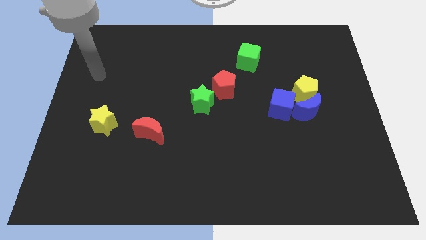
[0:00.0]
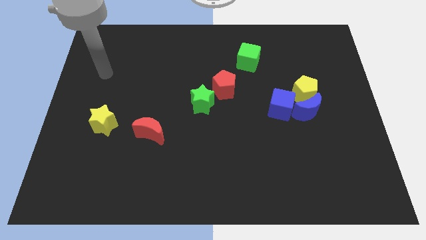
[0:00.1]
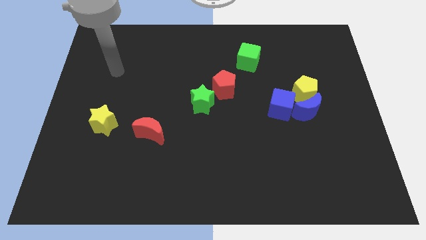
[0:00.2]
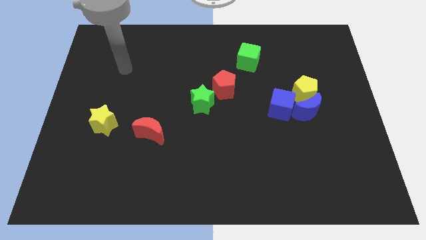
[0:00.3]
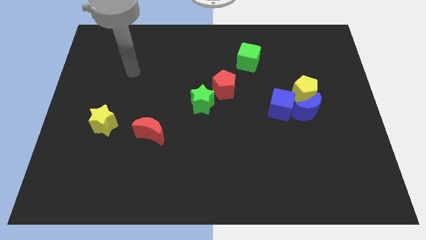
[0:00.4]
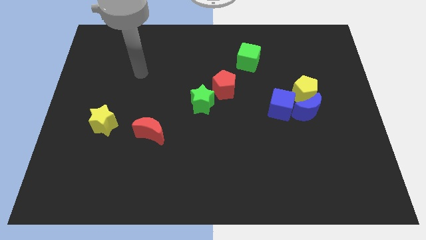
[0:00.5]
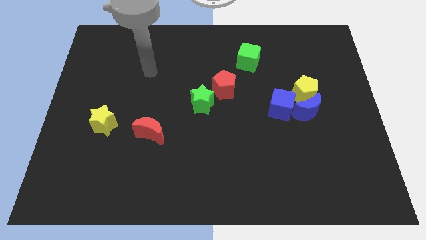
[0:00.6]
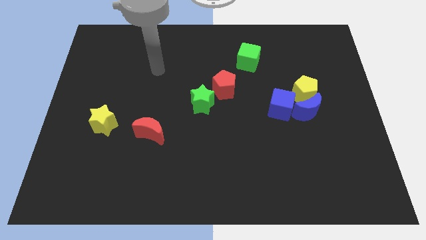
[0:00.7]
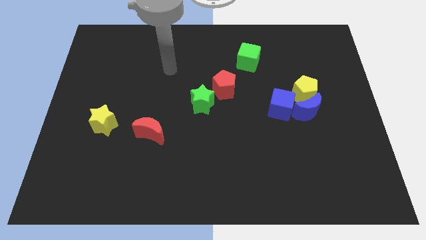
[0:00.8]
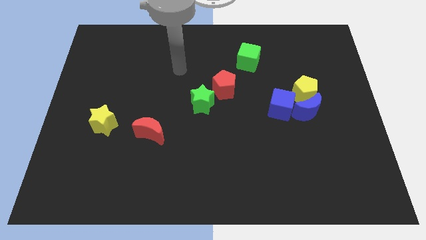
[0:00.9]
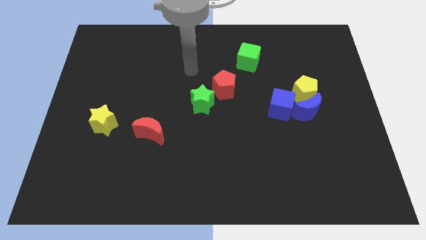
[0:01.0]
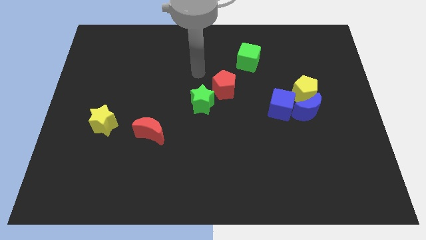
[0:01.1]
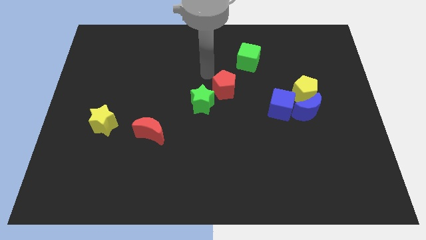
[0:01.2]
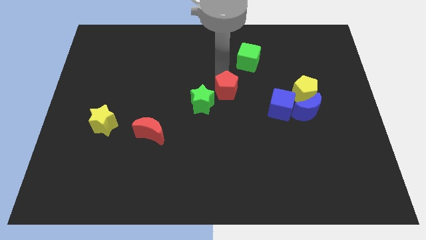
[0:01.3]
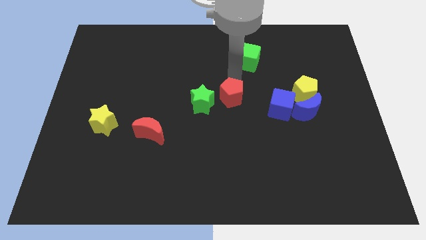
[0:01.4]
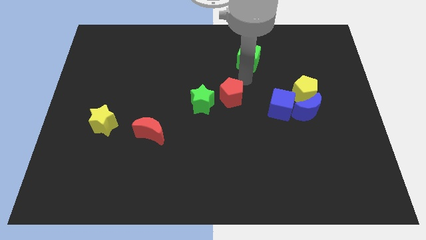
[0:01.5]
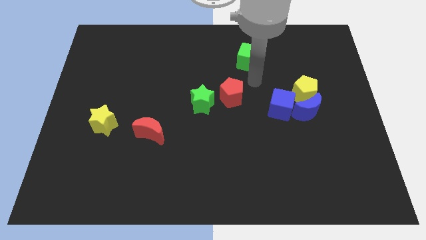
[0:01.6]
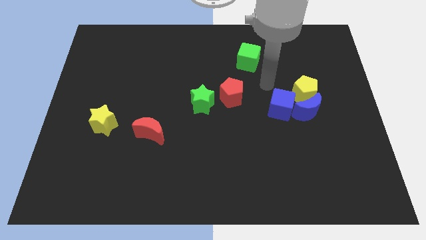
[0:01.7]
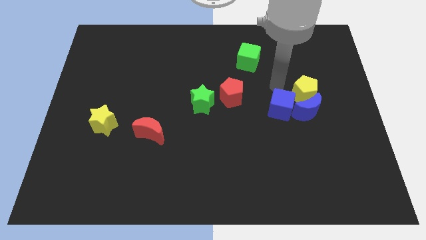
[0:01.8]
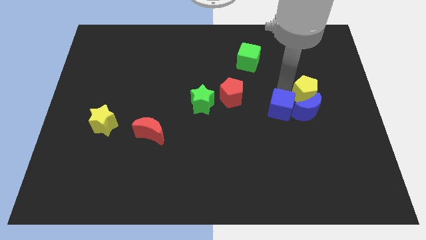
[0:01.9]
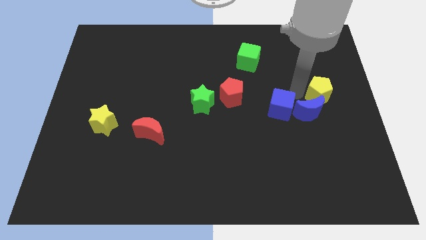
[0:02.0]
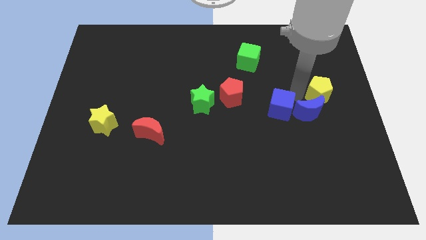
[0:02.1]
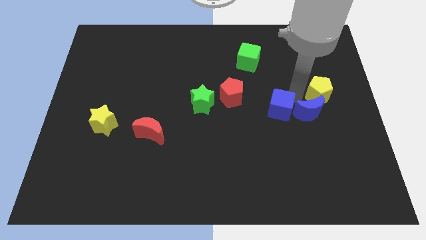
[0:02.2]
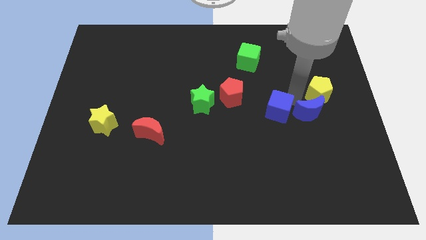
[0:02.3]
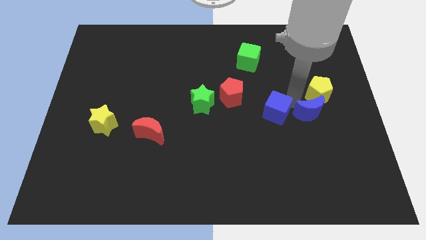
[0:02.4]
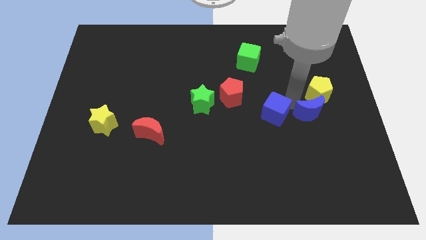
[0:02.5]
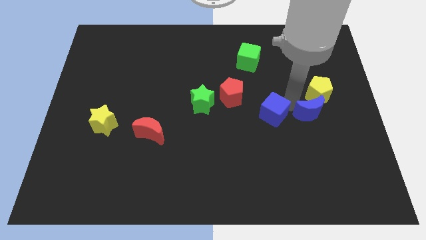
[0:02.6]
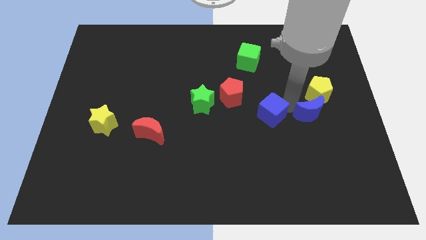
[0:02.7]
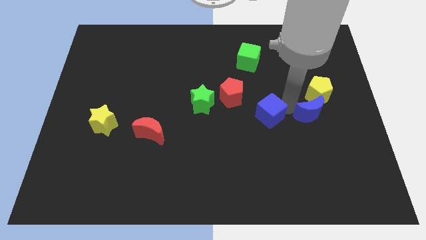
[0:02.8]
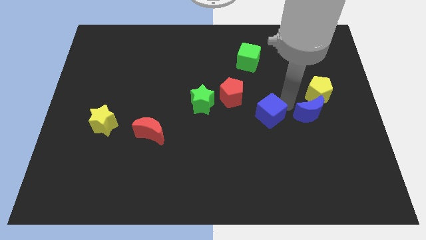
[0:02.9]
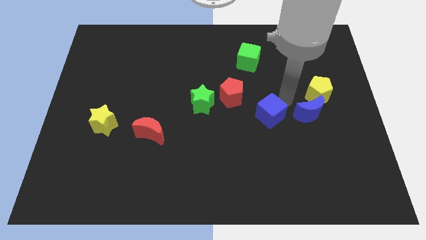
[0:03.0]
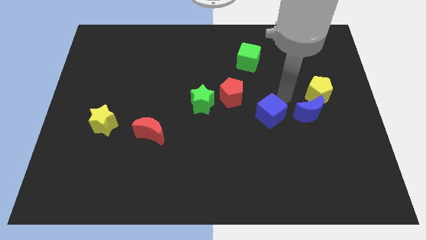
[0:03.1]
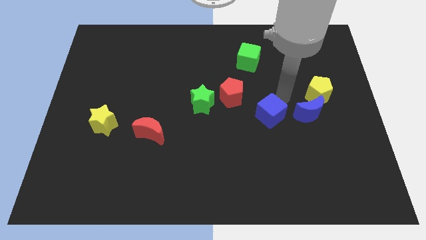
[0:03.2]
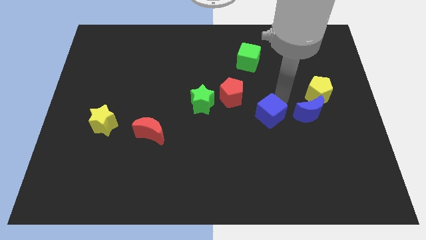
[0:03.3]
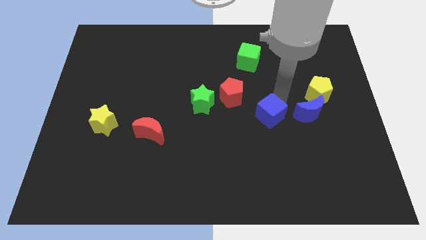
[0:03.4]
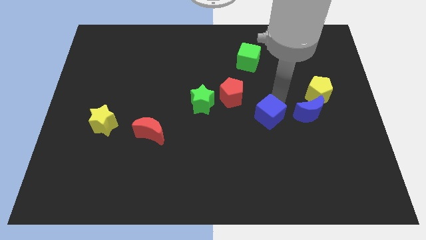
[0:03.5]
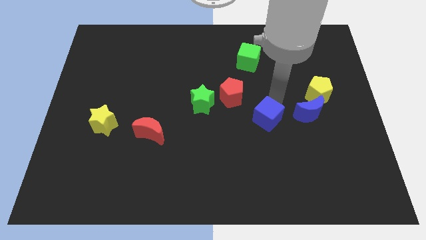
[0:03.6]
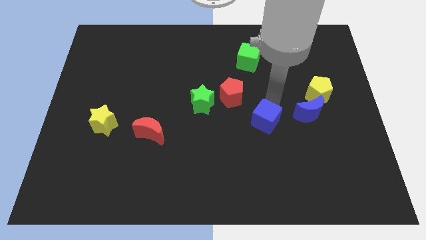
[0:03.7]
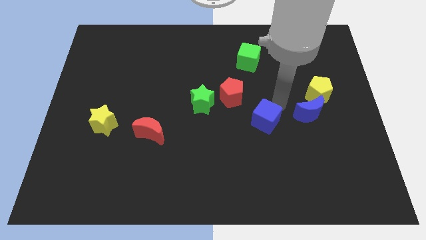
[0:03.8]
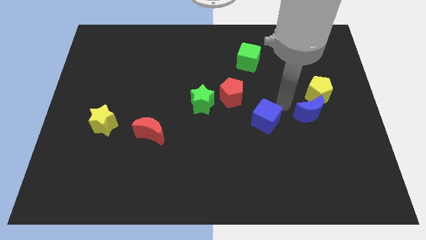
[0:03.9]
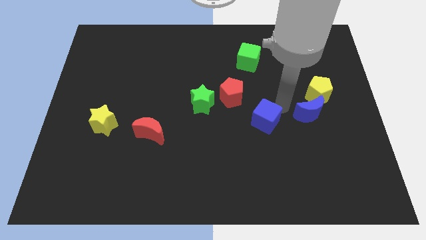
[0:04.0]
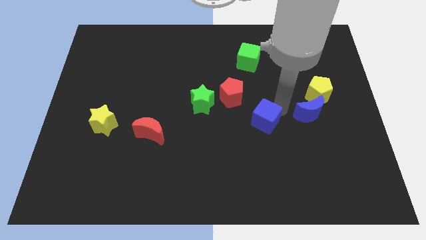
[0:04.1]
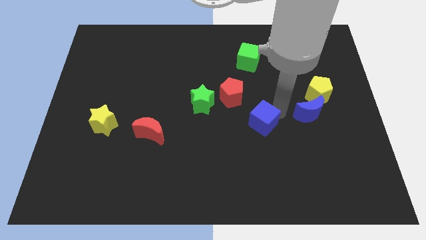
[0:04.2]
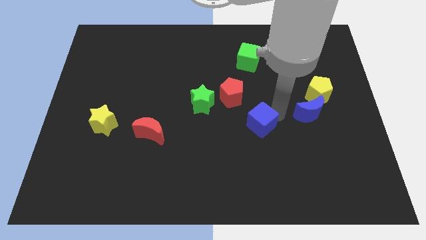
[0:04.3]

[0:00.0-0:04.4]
slightly slide the blue cube downwards and to the left

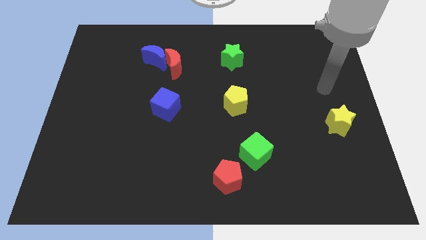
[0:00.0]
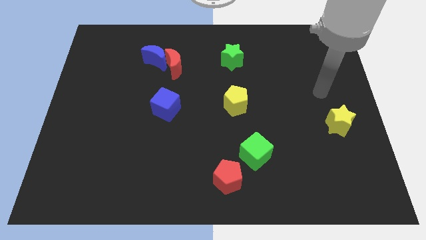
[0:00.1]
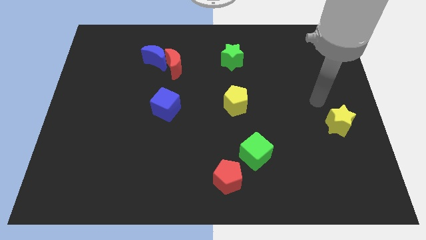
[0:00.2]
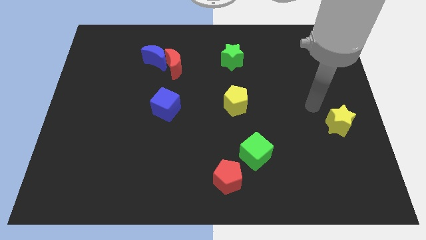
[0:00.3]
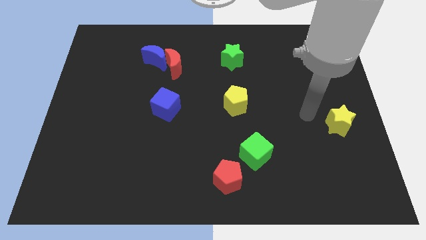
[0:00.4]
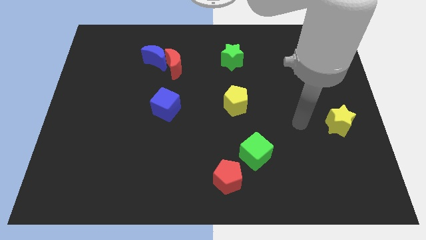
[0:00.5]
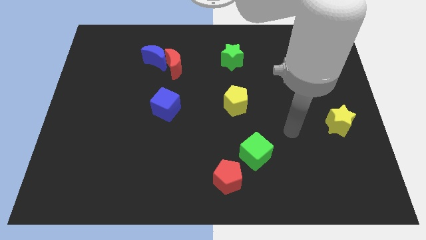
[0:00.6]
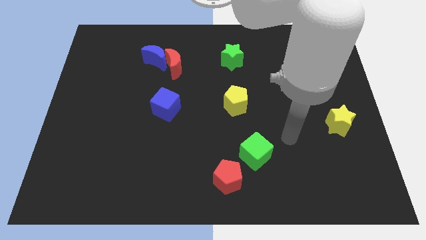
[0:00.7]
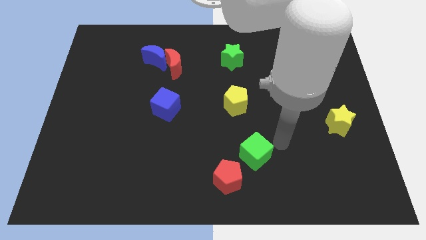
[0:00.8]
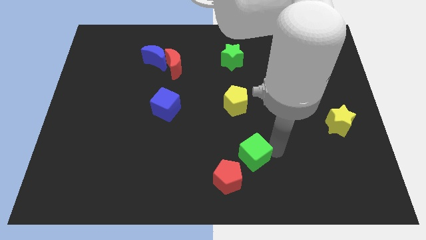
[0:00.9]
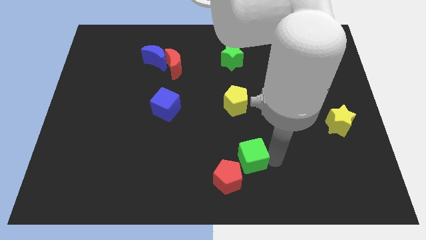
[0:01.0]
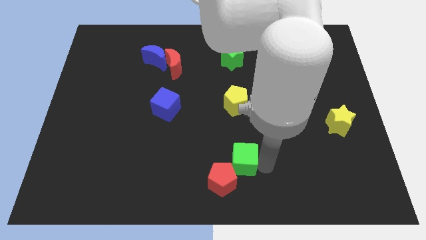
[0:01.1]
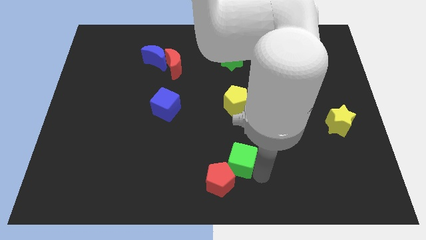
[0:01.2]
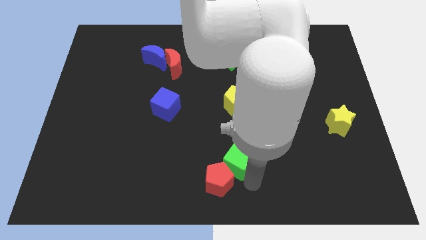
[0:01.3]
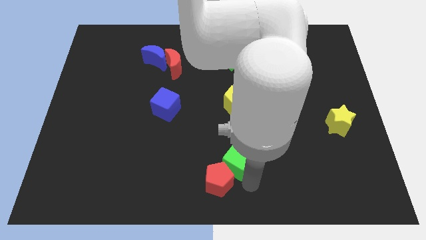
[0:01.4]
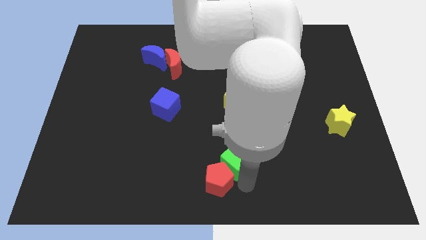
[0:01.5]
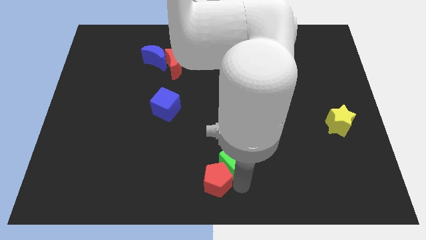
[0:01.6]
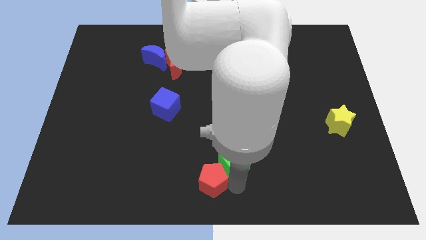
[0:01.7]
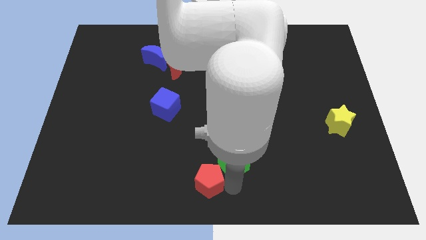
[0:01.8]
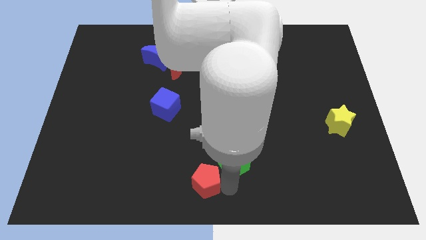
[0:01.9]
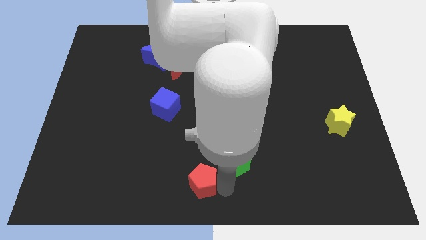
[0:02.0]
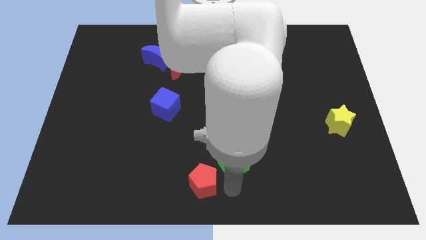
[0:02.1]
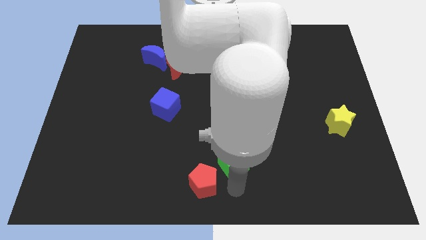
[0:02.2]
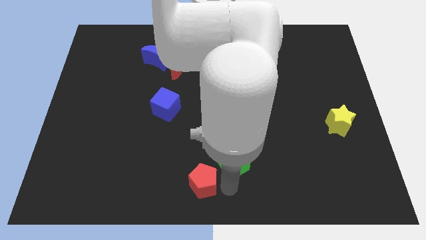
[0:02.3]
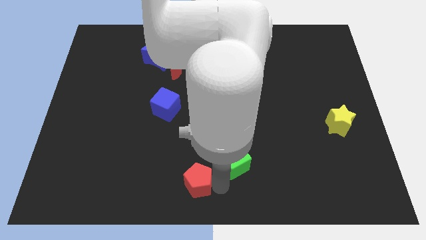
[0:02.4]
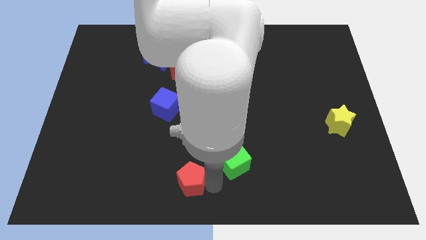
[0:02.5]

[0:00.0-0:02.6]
slightly slide the red pentagon left

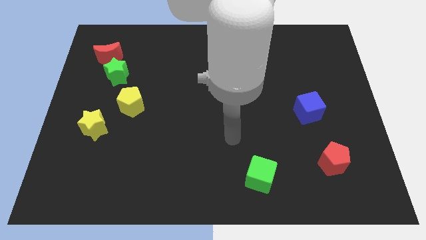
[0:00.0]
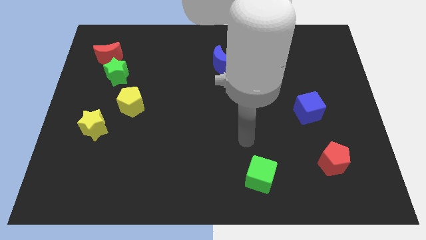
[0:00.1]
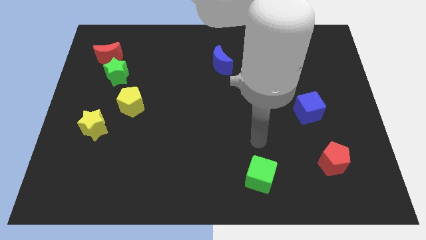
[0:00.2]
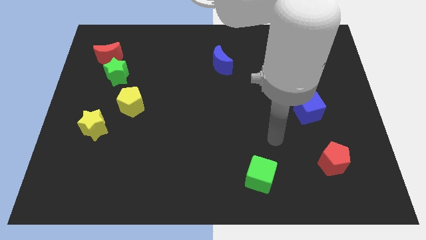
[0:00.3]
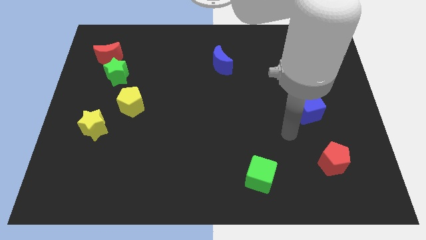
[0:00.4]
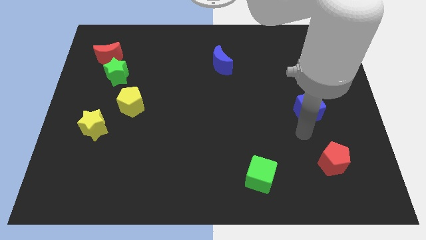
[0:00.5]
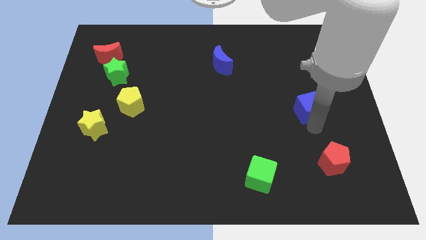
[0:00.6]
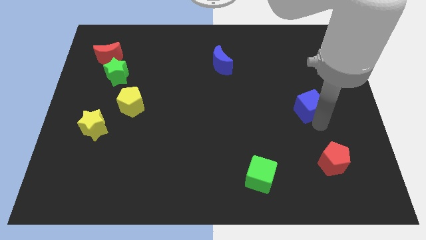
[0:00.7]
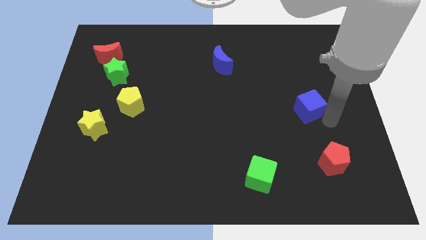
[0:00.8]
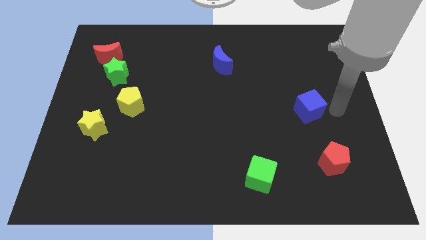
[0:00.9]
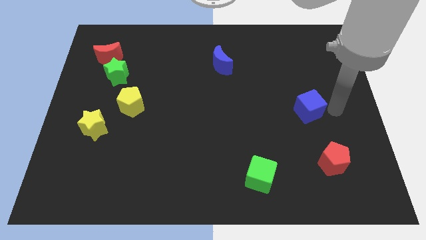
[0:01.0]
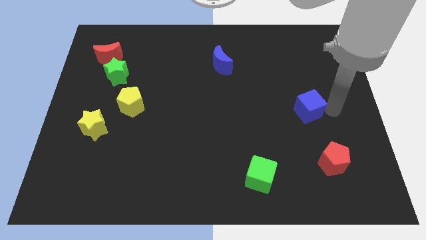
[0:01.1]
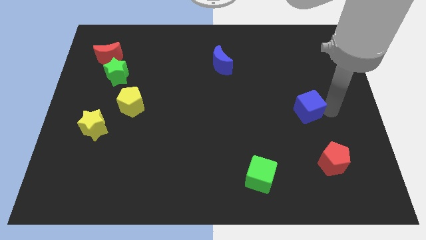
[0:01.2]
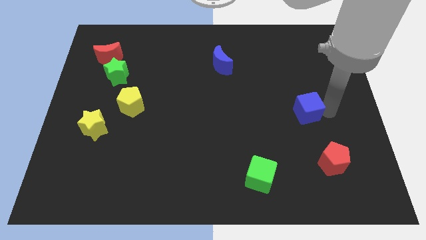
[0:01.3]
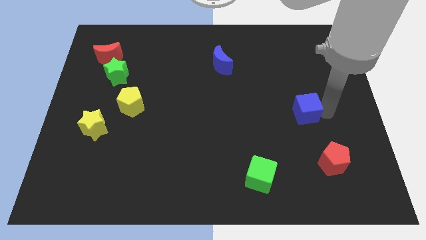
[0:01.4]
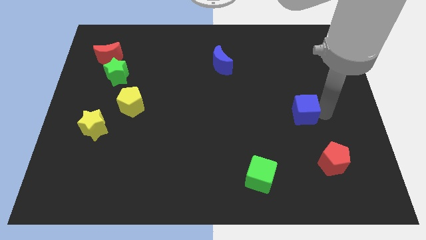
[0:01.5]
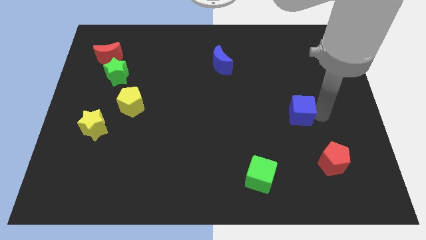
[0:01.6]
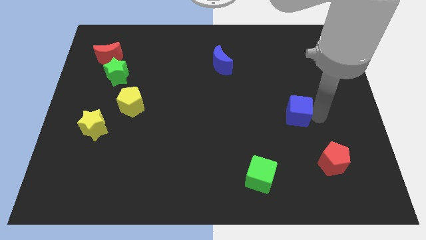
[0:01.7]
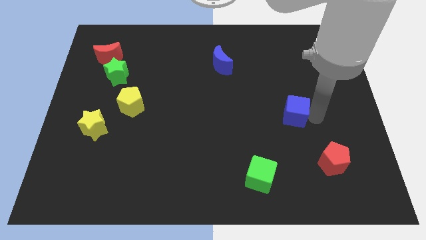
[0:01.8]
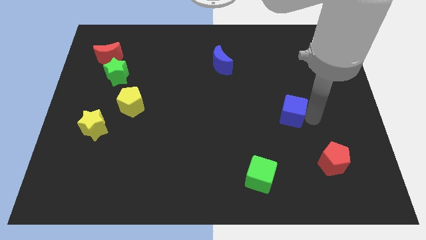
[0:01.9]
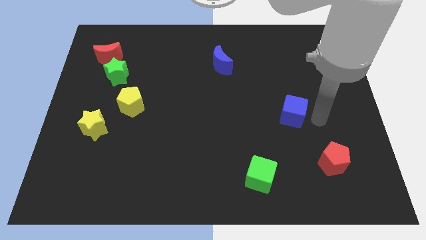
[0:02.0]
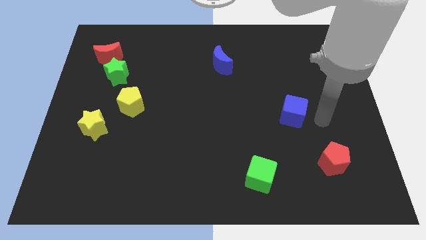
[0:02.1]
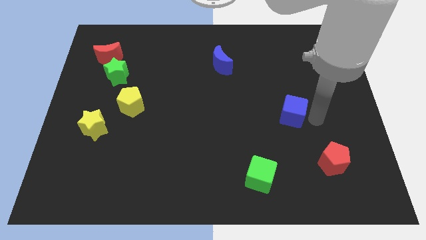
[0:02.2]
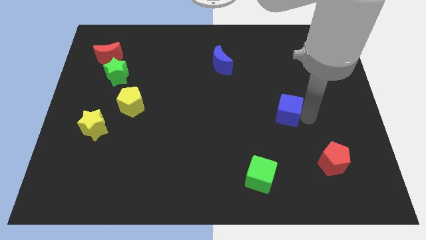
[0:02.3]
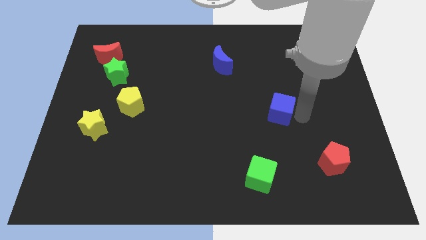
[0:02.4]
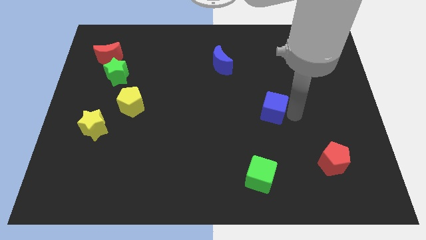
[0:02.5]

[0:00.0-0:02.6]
move the blue cube somewhat to the left
